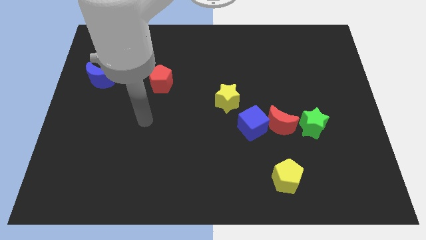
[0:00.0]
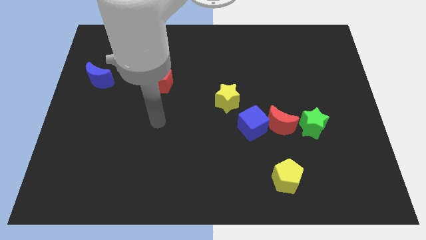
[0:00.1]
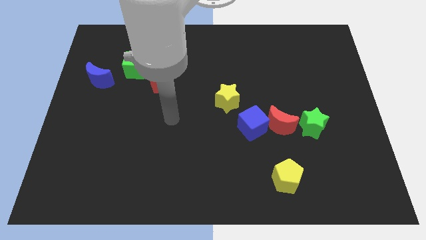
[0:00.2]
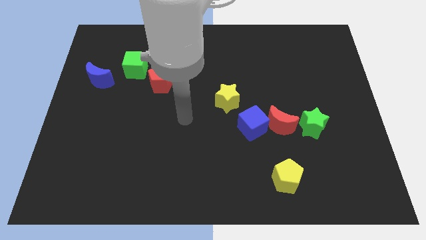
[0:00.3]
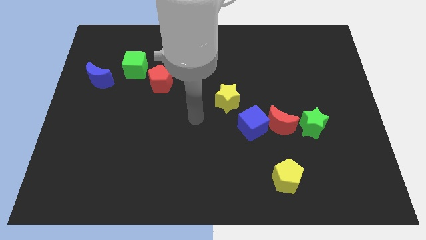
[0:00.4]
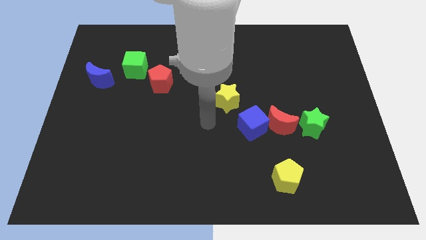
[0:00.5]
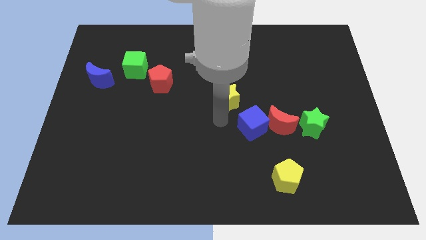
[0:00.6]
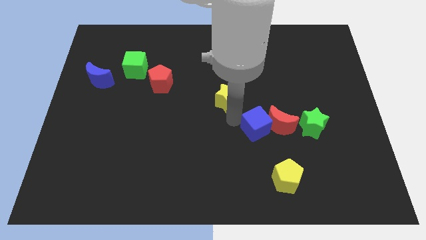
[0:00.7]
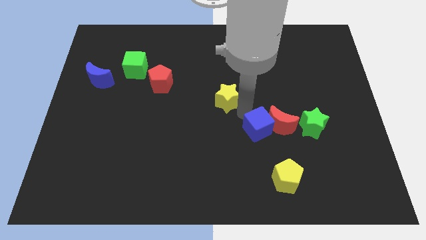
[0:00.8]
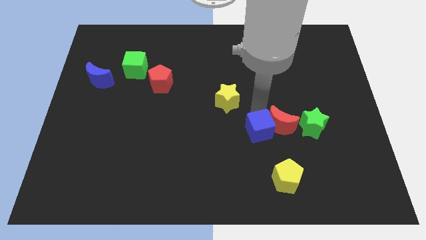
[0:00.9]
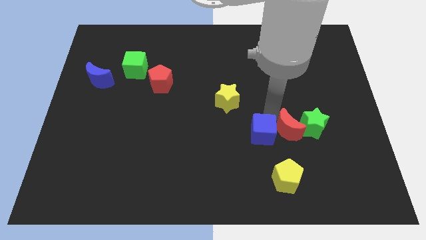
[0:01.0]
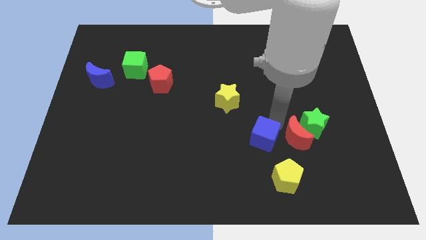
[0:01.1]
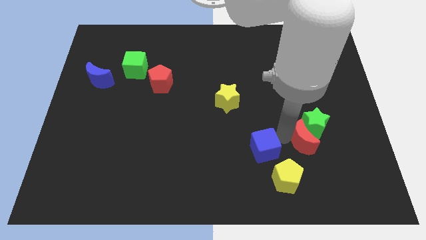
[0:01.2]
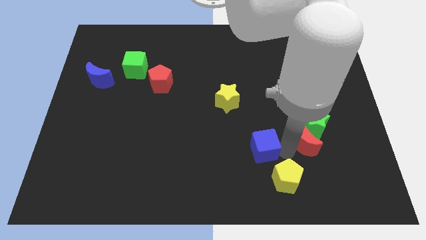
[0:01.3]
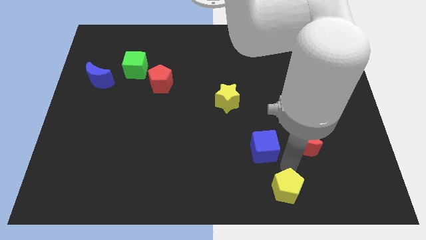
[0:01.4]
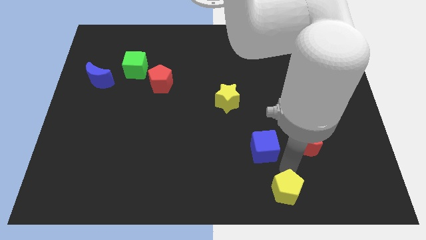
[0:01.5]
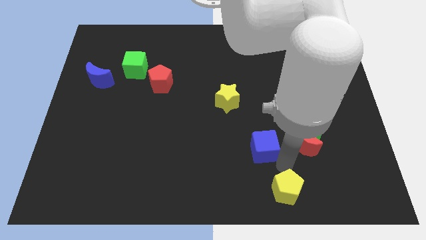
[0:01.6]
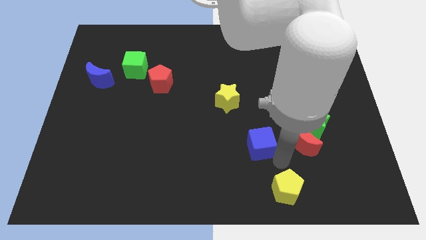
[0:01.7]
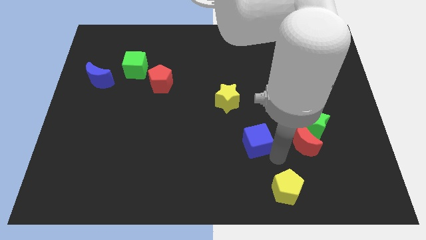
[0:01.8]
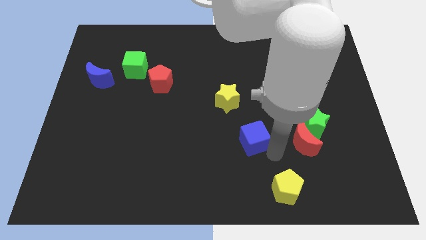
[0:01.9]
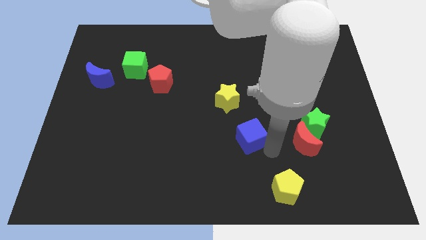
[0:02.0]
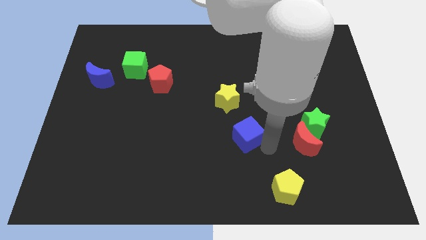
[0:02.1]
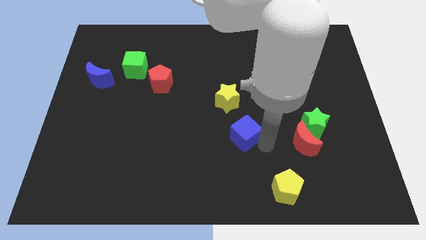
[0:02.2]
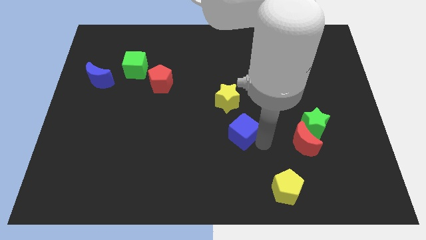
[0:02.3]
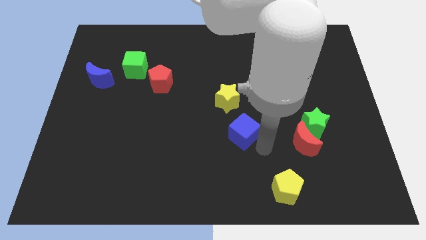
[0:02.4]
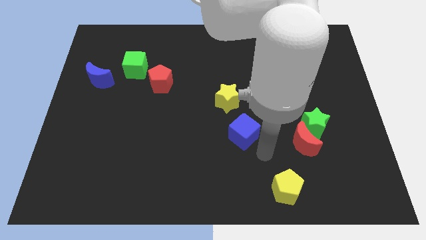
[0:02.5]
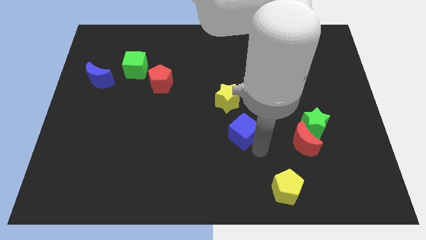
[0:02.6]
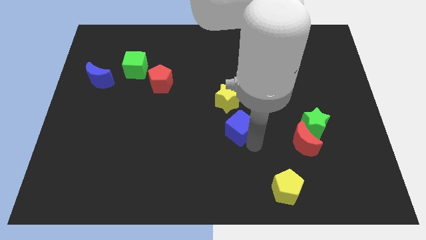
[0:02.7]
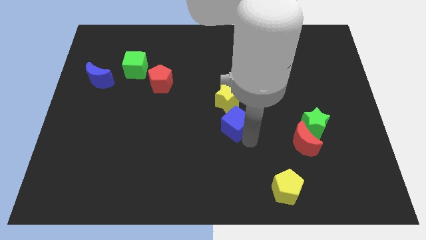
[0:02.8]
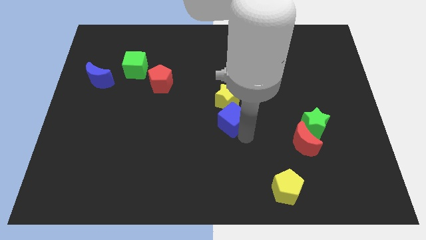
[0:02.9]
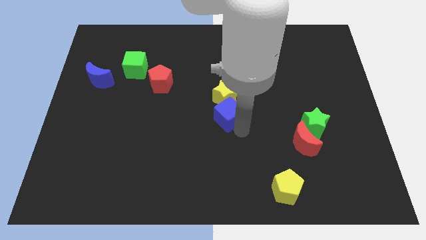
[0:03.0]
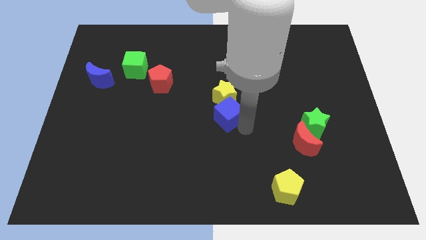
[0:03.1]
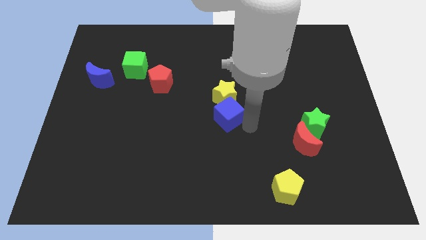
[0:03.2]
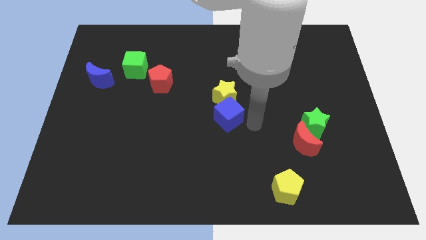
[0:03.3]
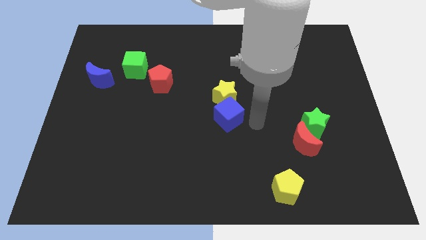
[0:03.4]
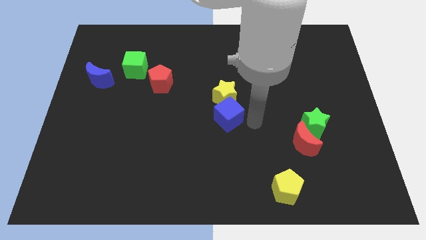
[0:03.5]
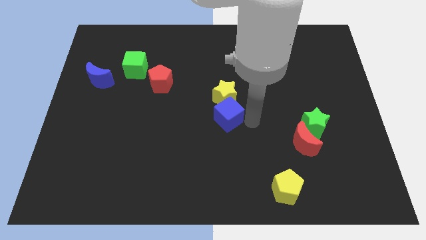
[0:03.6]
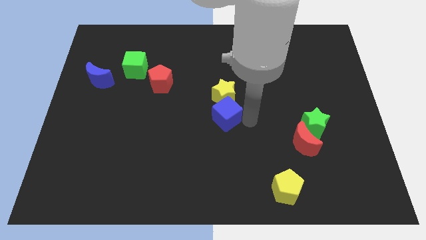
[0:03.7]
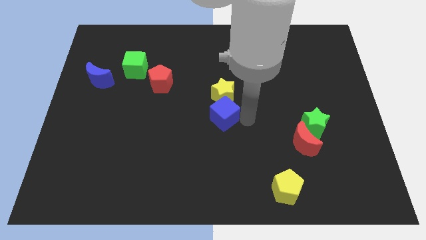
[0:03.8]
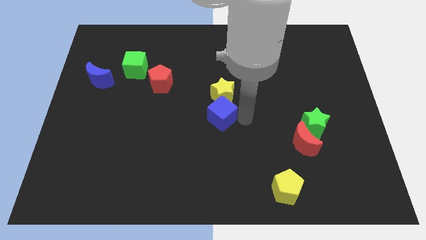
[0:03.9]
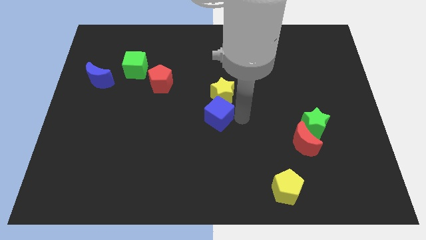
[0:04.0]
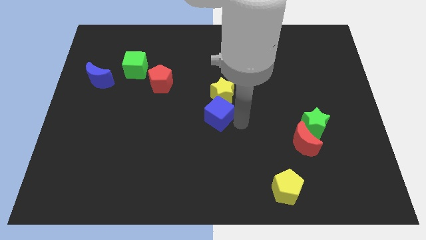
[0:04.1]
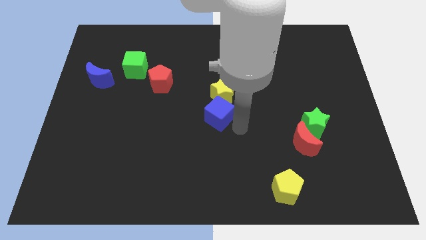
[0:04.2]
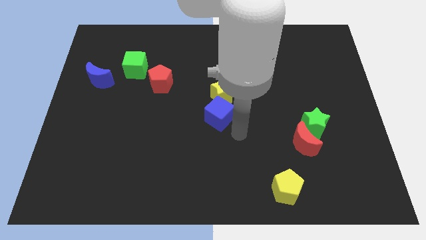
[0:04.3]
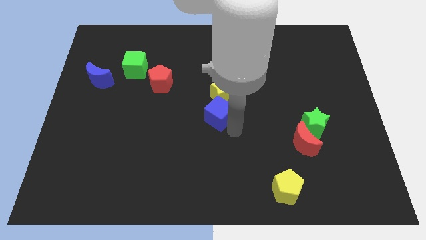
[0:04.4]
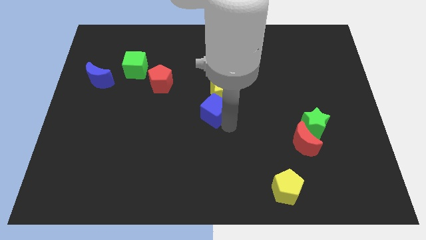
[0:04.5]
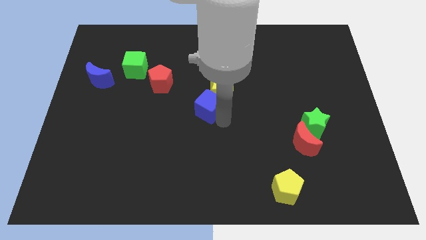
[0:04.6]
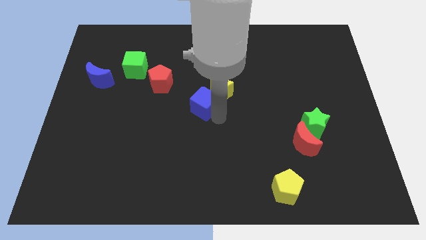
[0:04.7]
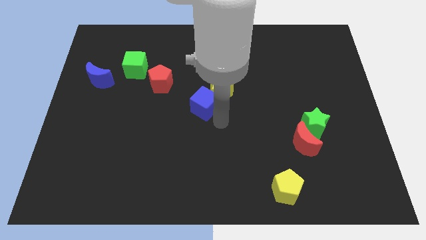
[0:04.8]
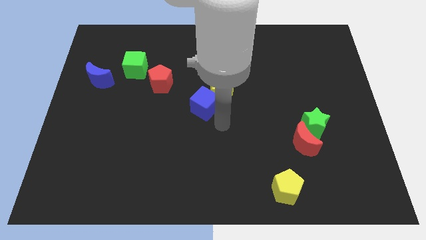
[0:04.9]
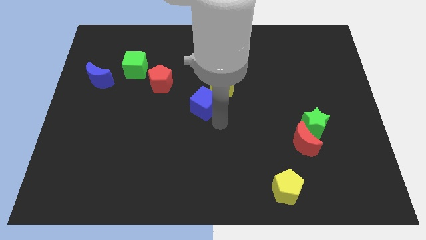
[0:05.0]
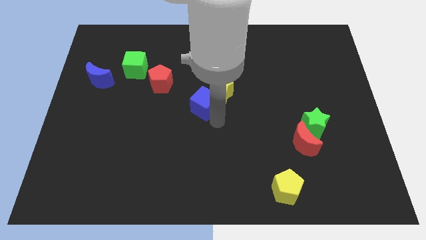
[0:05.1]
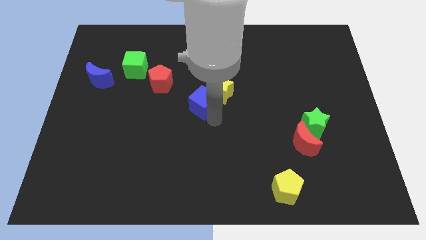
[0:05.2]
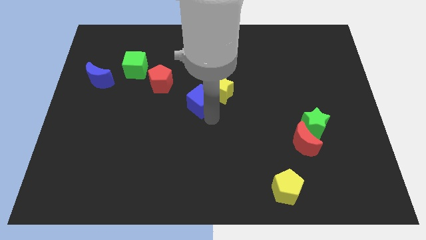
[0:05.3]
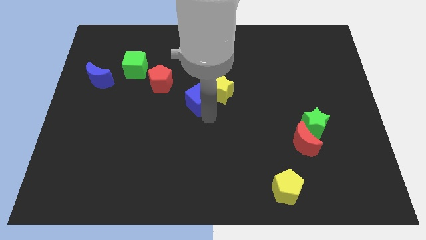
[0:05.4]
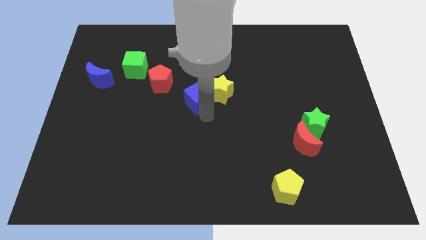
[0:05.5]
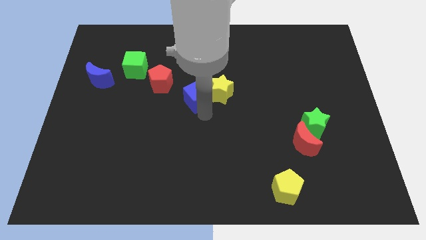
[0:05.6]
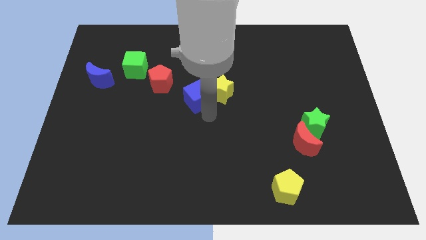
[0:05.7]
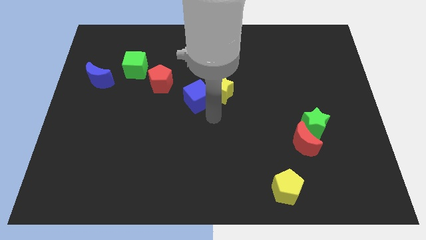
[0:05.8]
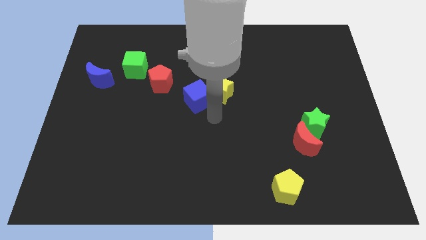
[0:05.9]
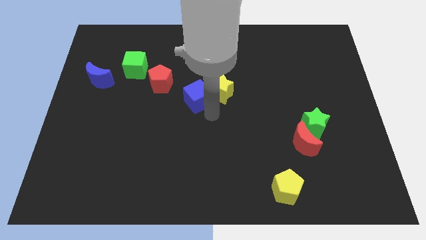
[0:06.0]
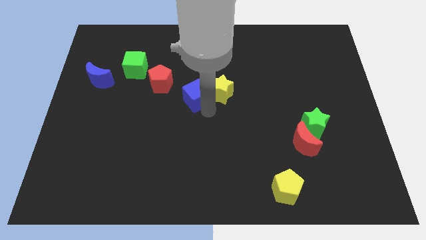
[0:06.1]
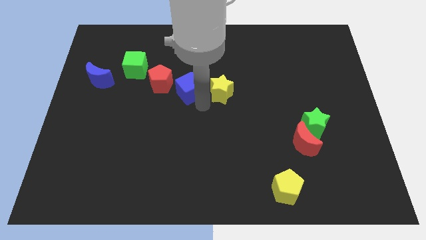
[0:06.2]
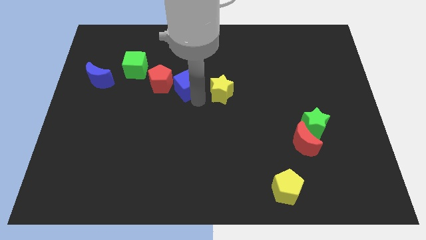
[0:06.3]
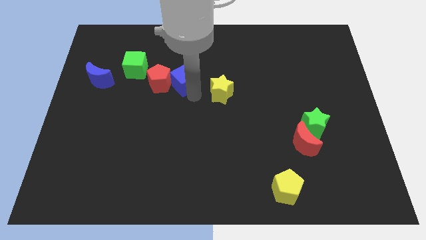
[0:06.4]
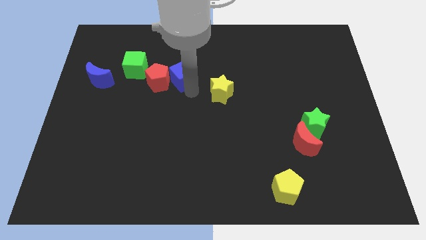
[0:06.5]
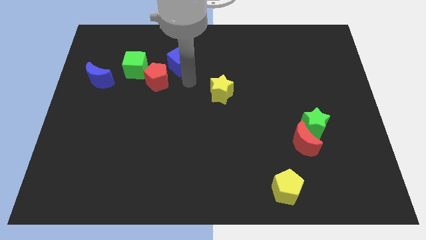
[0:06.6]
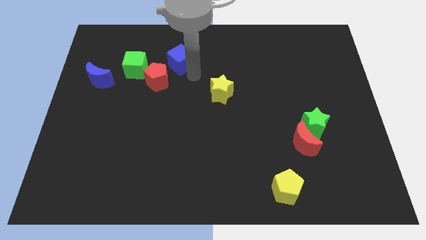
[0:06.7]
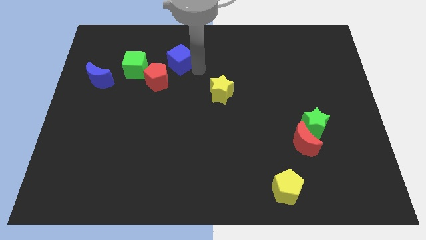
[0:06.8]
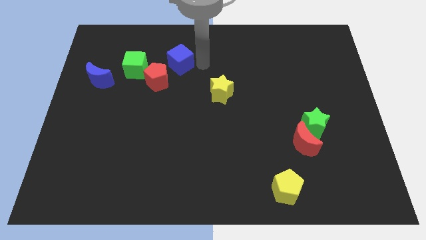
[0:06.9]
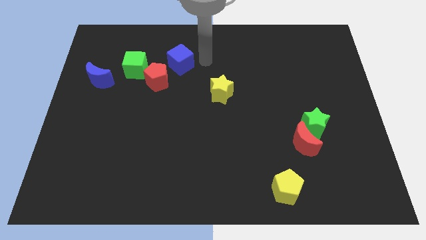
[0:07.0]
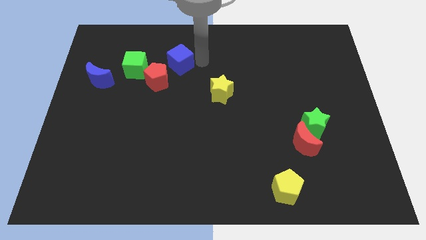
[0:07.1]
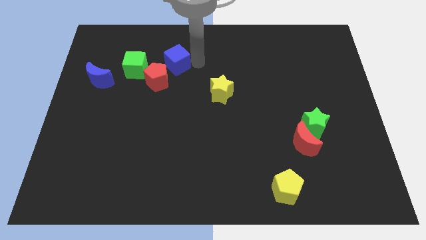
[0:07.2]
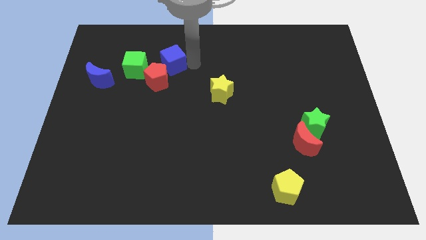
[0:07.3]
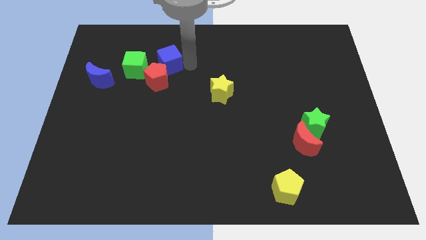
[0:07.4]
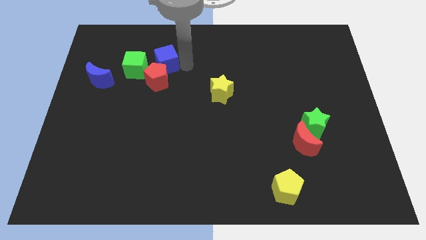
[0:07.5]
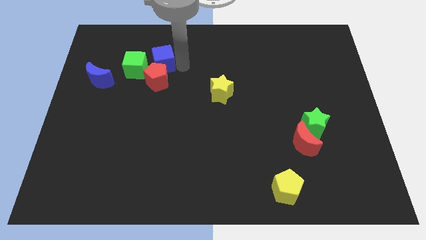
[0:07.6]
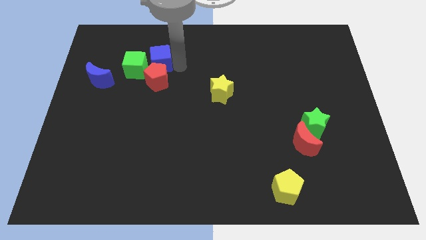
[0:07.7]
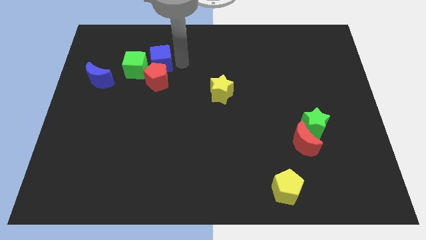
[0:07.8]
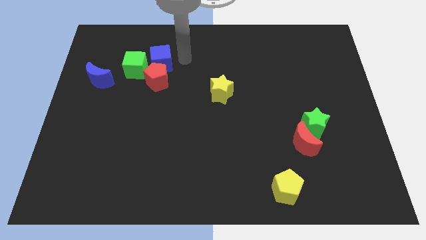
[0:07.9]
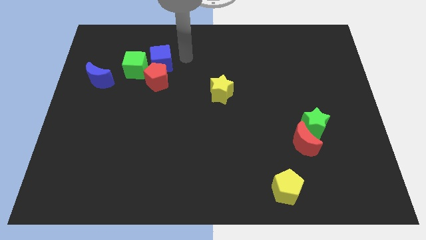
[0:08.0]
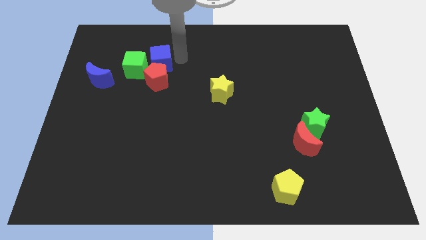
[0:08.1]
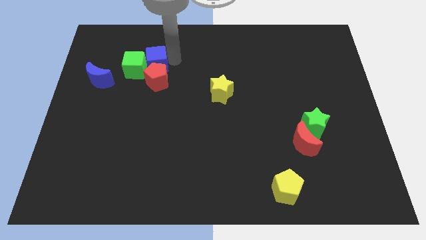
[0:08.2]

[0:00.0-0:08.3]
slide the blue cube towards the green cube
